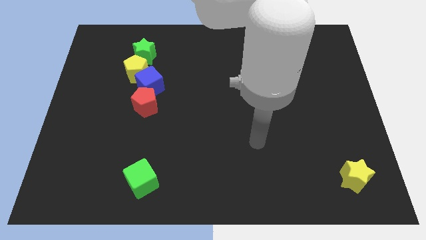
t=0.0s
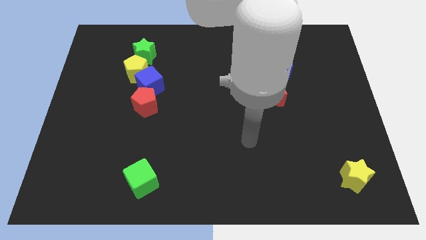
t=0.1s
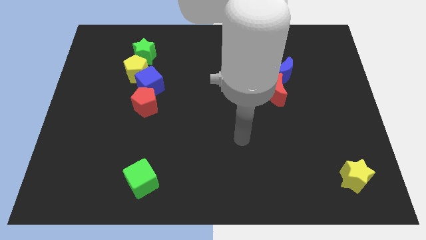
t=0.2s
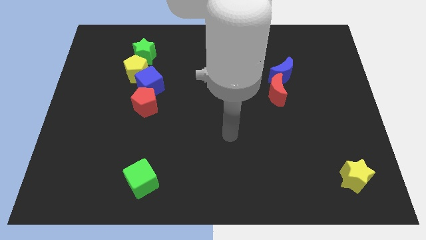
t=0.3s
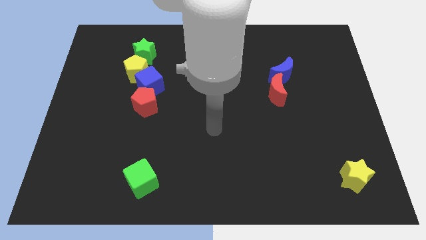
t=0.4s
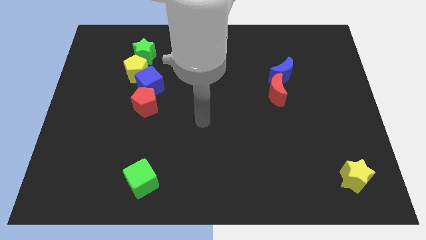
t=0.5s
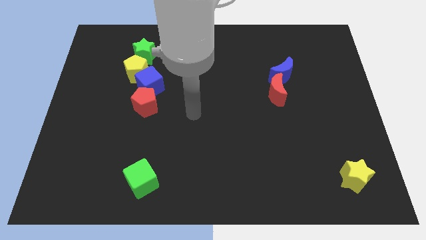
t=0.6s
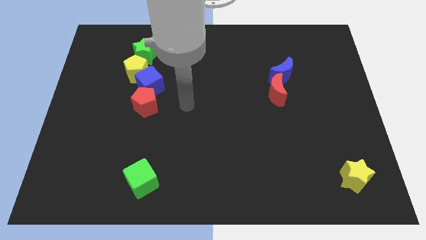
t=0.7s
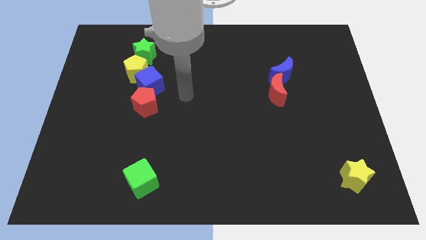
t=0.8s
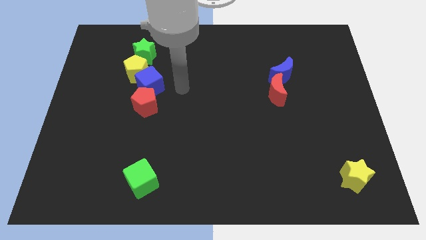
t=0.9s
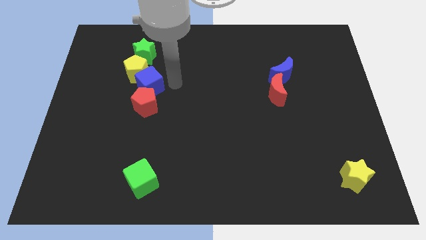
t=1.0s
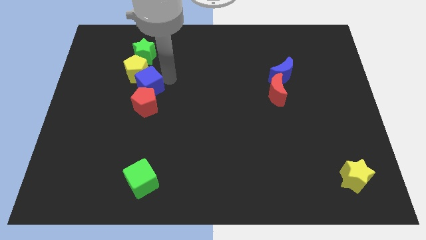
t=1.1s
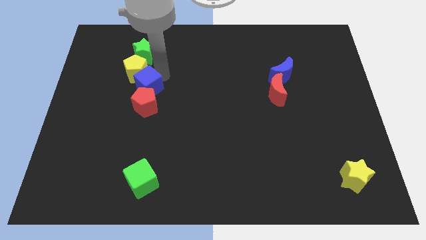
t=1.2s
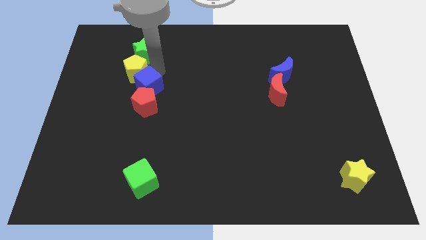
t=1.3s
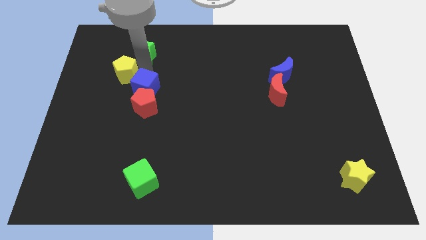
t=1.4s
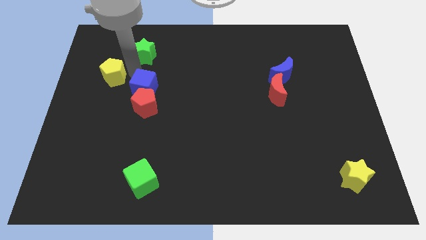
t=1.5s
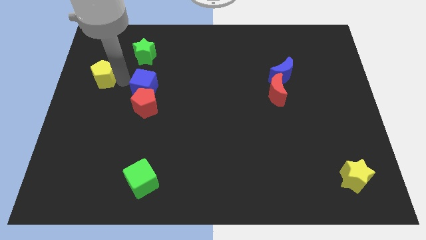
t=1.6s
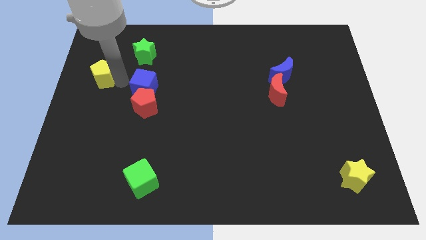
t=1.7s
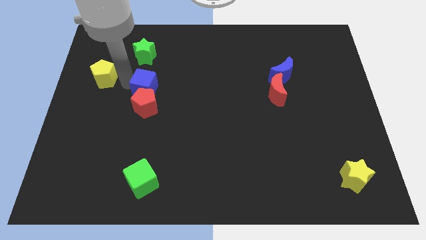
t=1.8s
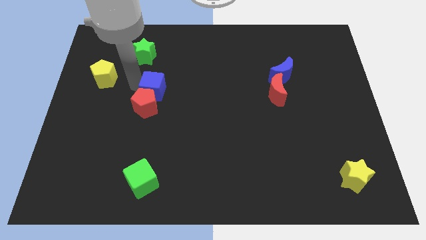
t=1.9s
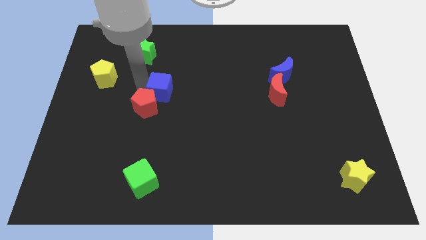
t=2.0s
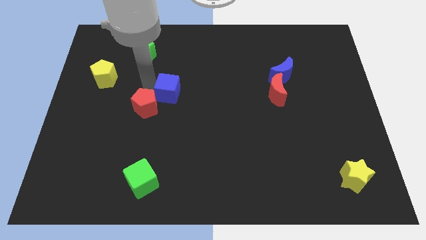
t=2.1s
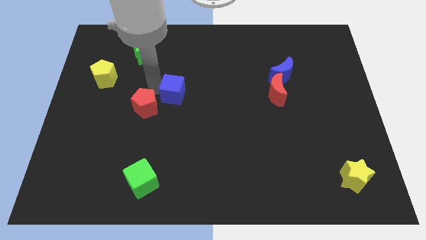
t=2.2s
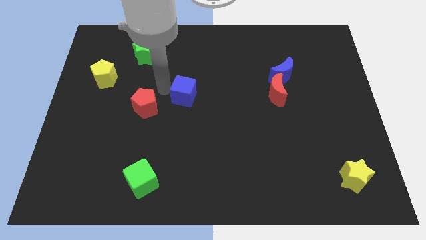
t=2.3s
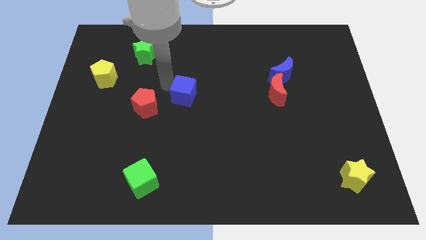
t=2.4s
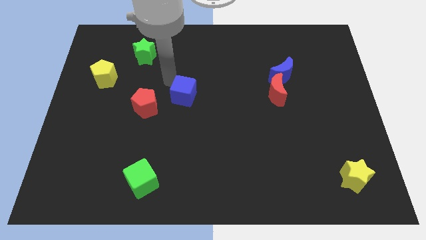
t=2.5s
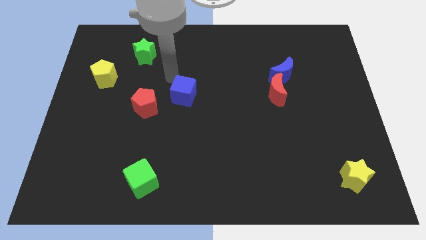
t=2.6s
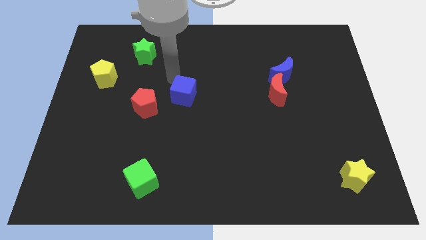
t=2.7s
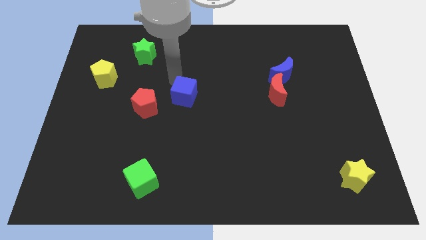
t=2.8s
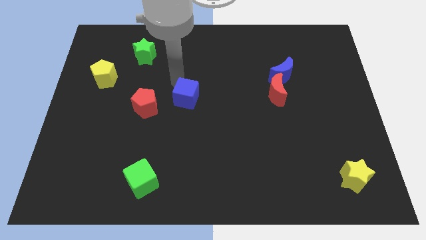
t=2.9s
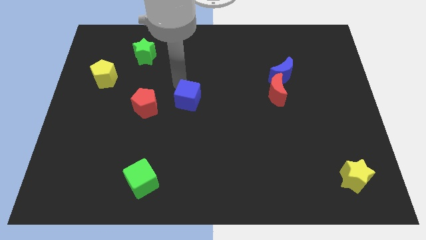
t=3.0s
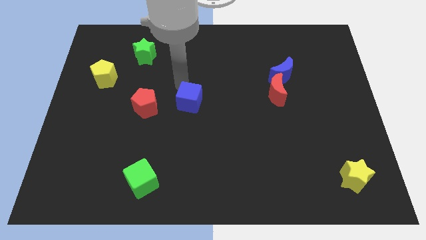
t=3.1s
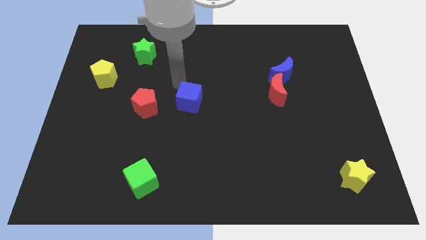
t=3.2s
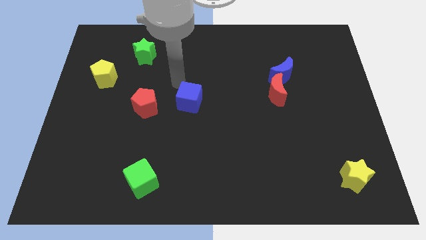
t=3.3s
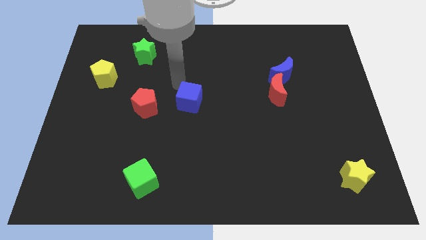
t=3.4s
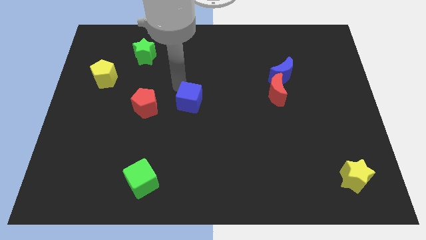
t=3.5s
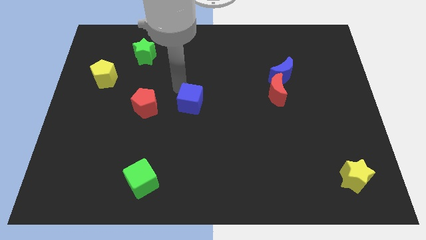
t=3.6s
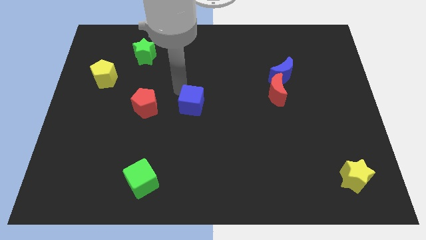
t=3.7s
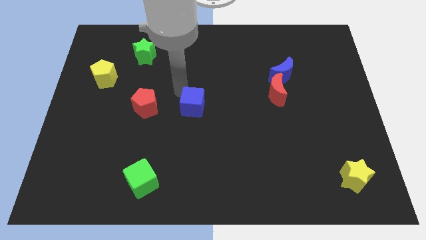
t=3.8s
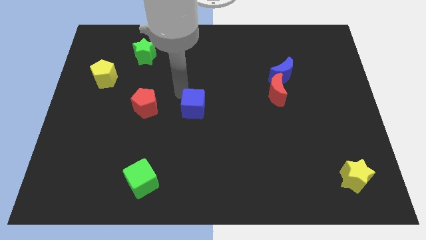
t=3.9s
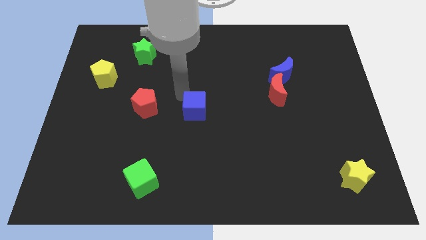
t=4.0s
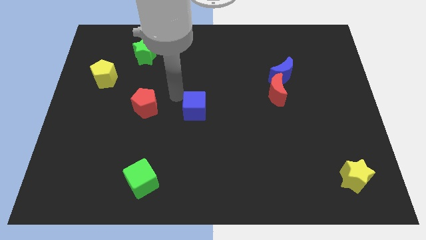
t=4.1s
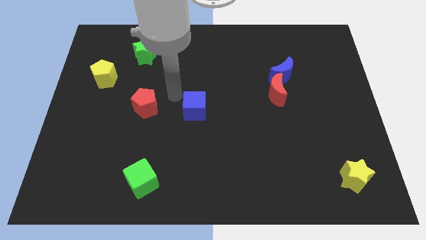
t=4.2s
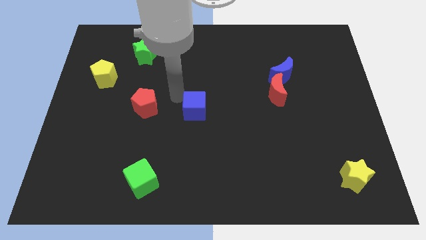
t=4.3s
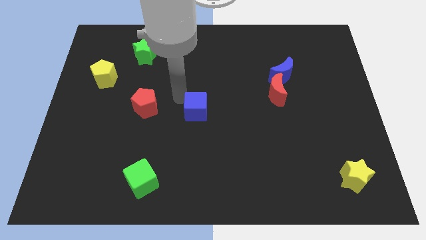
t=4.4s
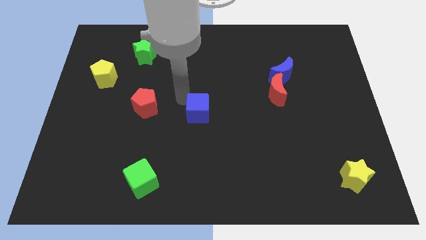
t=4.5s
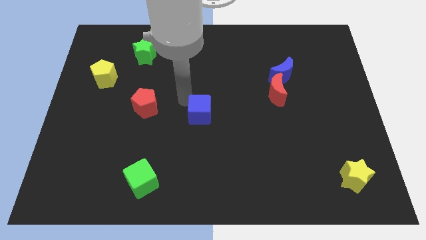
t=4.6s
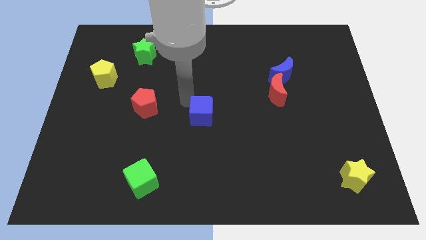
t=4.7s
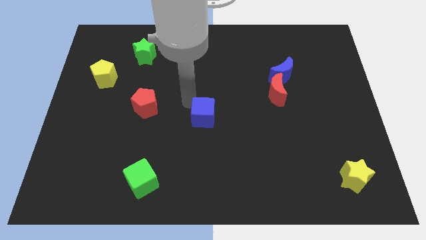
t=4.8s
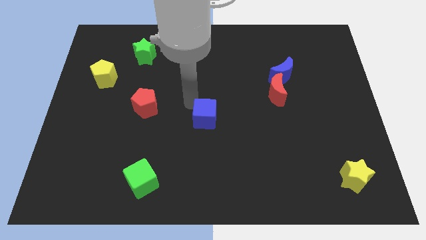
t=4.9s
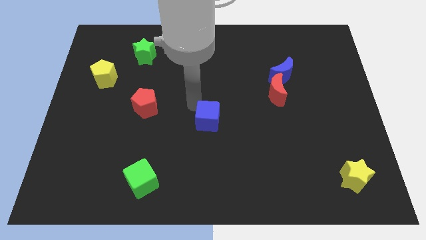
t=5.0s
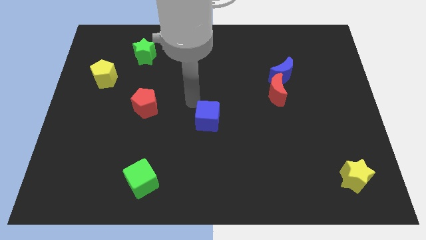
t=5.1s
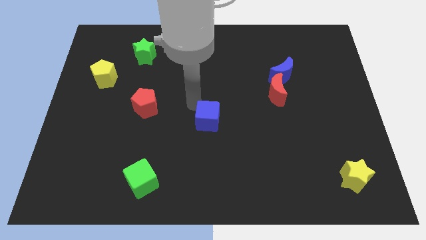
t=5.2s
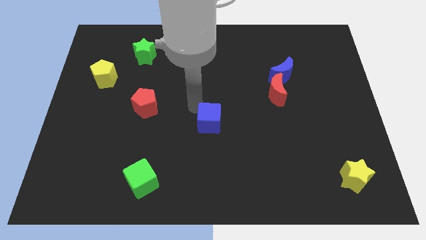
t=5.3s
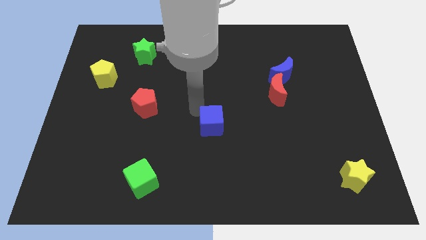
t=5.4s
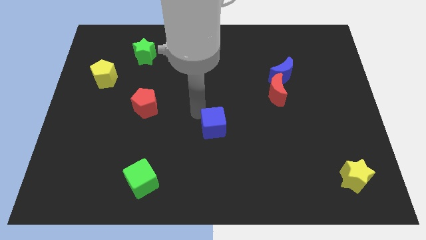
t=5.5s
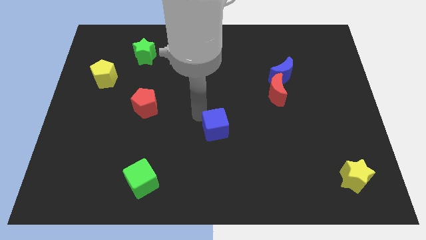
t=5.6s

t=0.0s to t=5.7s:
slide the blue cube down and right

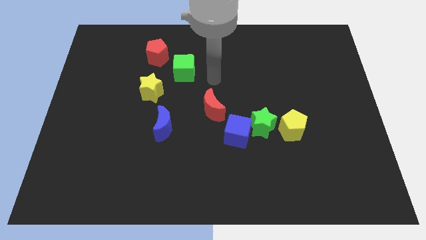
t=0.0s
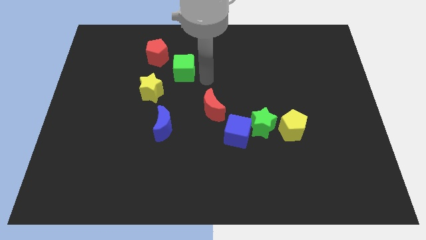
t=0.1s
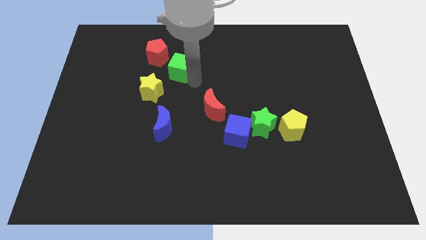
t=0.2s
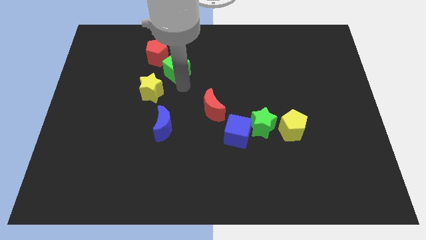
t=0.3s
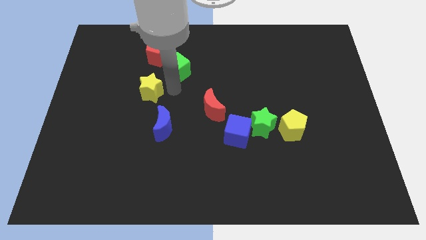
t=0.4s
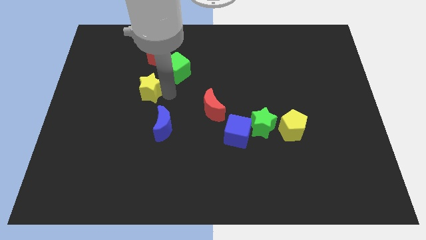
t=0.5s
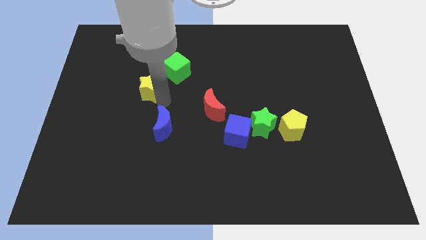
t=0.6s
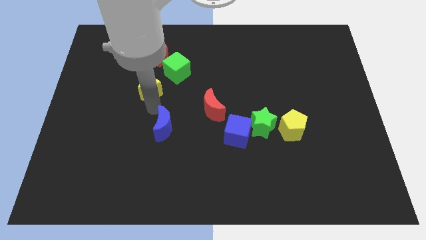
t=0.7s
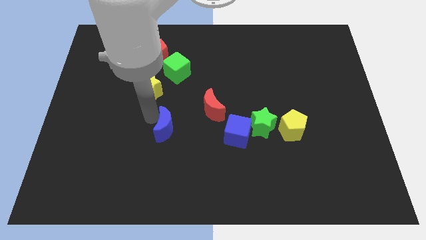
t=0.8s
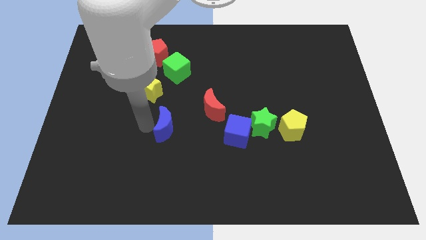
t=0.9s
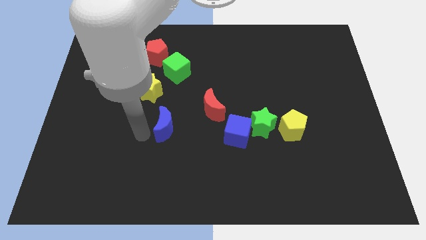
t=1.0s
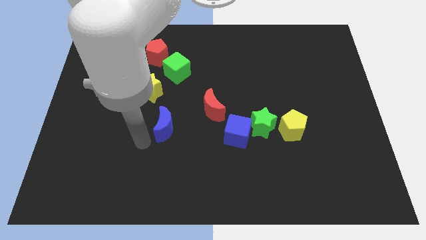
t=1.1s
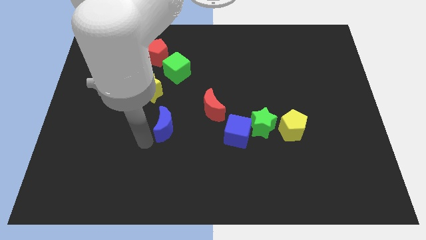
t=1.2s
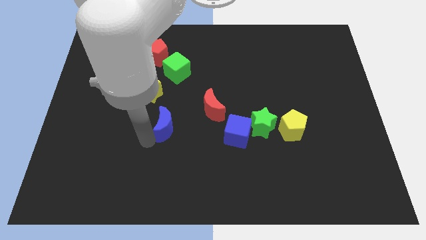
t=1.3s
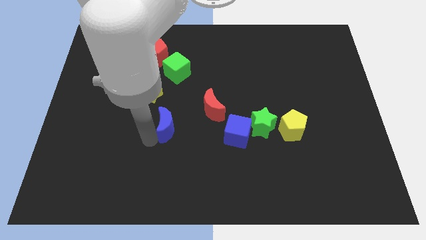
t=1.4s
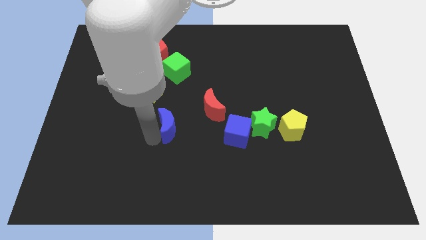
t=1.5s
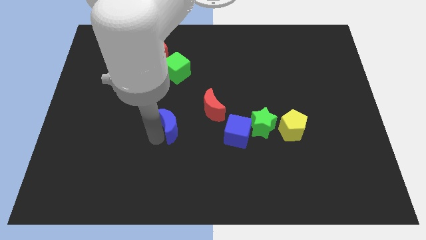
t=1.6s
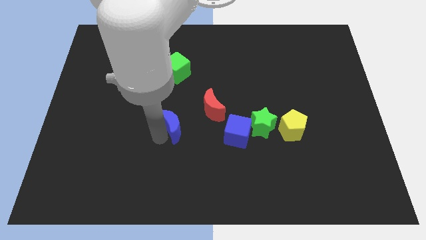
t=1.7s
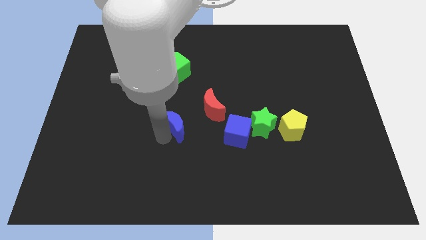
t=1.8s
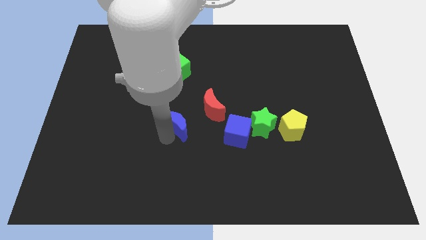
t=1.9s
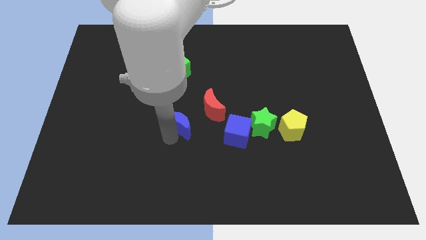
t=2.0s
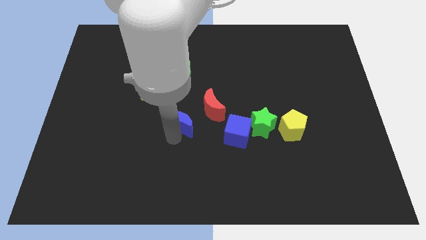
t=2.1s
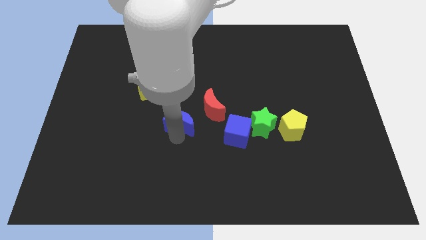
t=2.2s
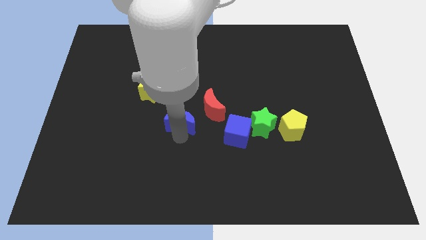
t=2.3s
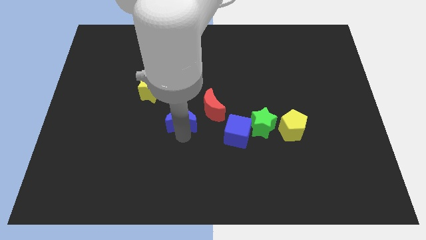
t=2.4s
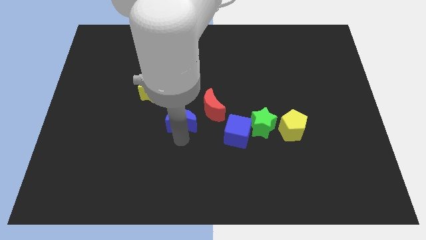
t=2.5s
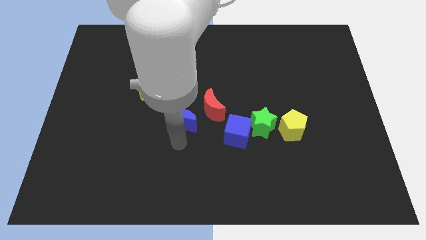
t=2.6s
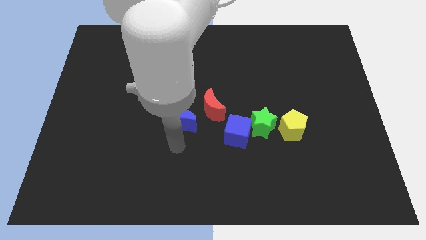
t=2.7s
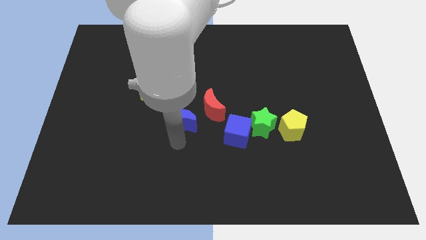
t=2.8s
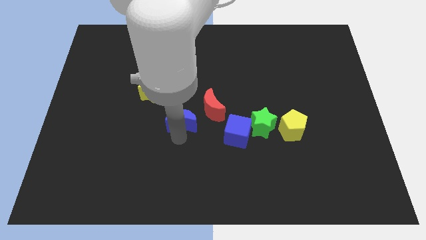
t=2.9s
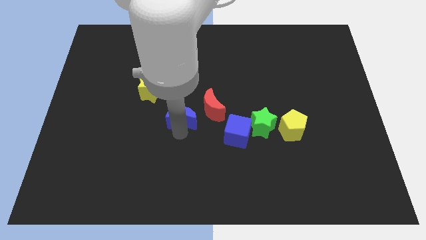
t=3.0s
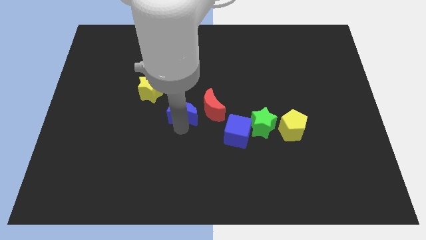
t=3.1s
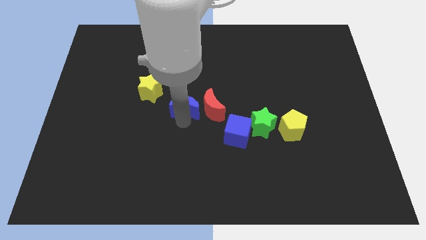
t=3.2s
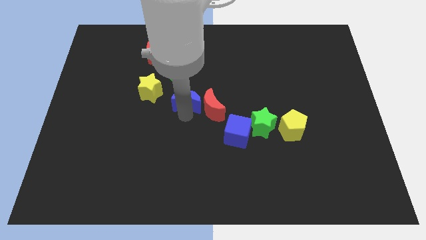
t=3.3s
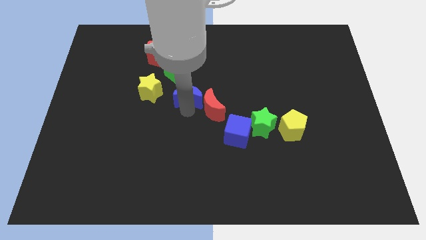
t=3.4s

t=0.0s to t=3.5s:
move the blue moon upwards a little
